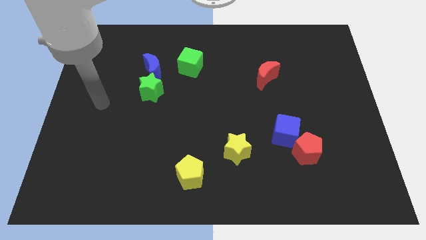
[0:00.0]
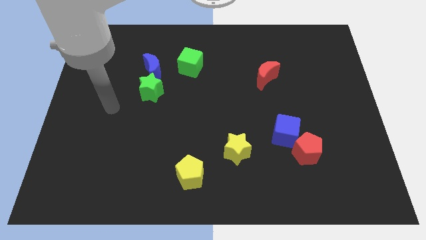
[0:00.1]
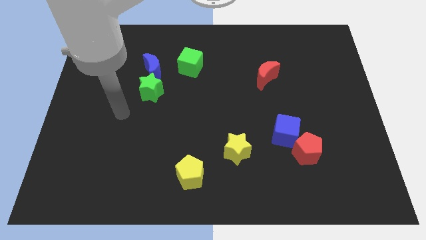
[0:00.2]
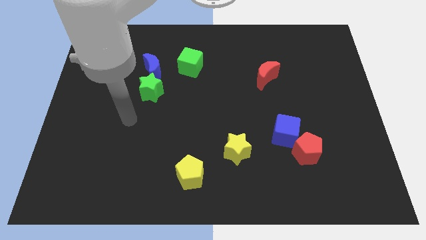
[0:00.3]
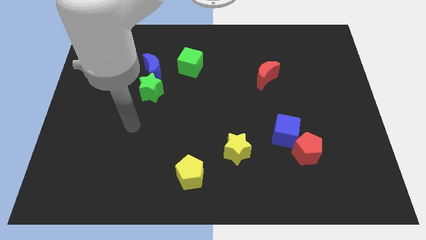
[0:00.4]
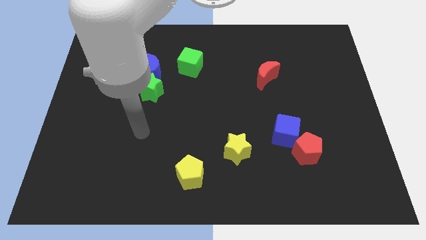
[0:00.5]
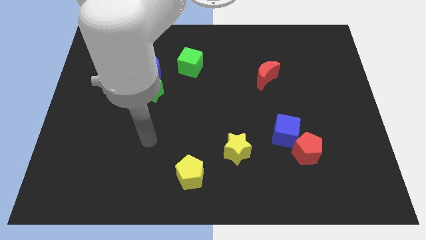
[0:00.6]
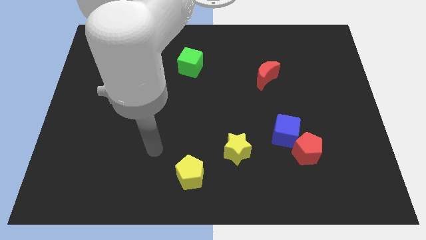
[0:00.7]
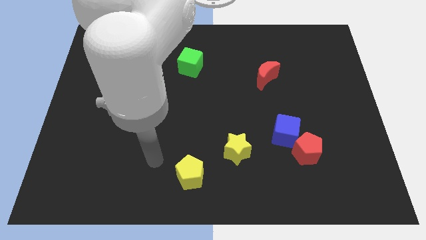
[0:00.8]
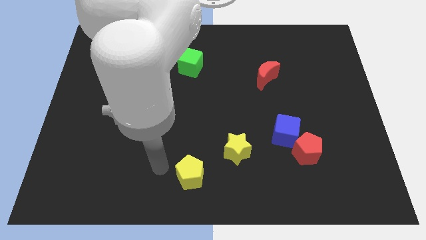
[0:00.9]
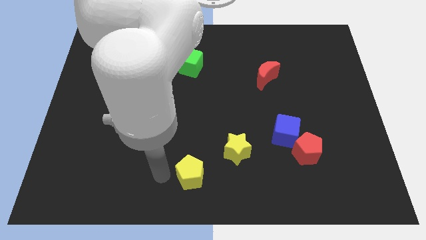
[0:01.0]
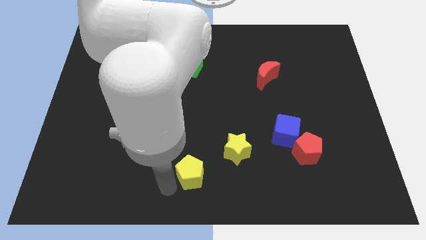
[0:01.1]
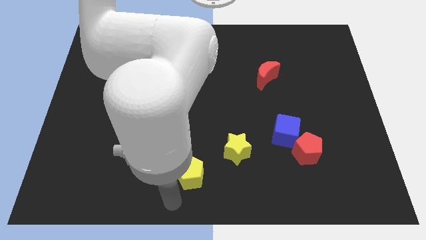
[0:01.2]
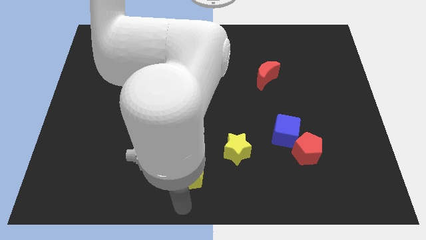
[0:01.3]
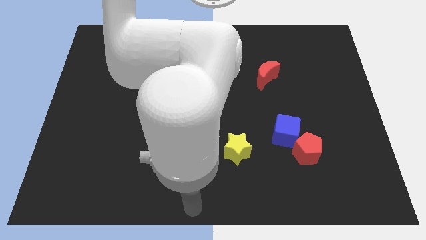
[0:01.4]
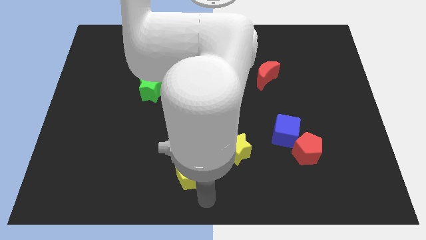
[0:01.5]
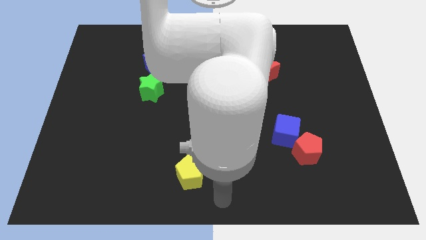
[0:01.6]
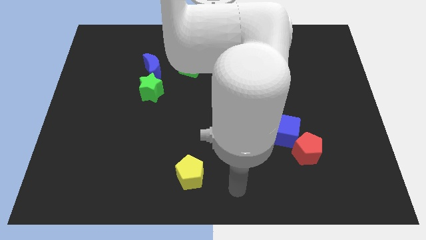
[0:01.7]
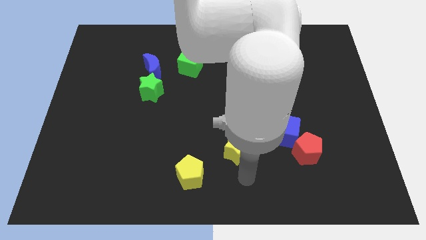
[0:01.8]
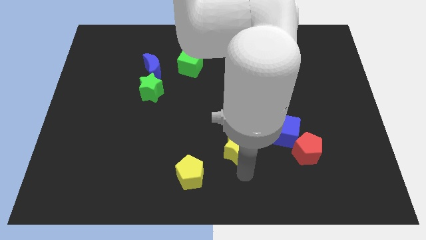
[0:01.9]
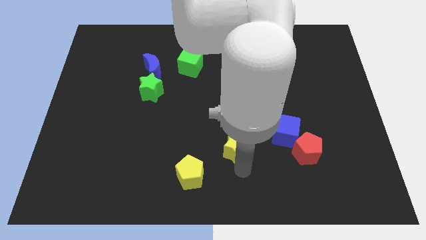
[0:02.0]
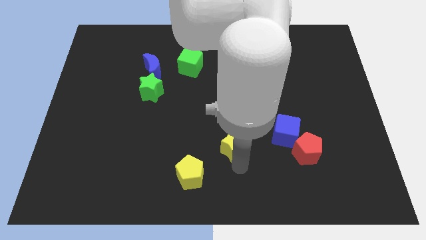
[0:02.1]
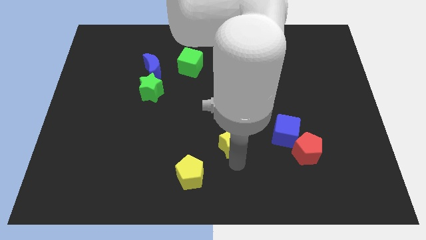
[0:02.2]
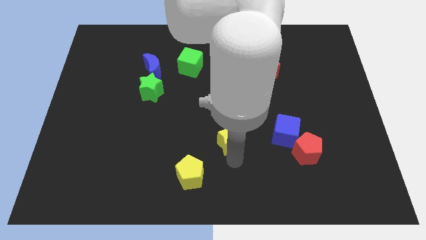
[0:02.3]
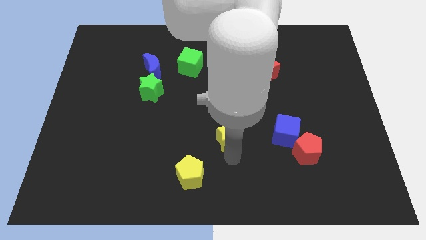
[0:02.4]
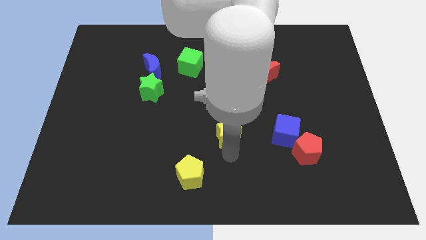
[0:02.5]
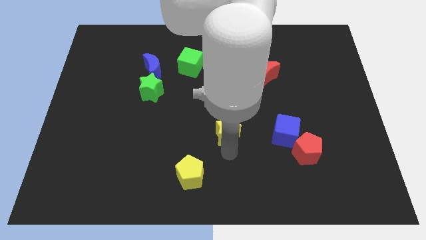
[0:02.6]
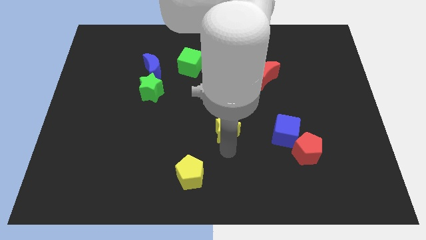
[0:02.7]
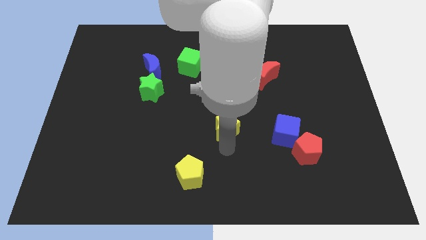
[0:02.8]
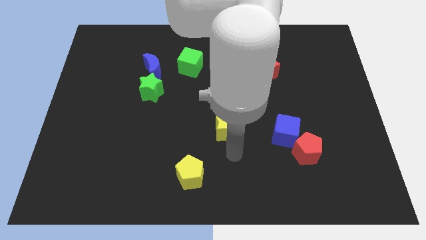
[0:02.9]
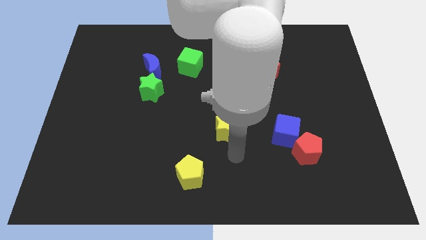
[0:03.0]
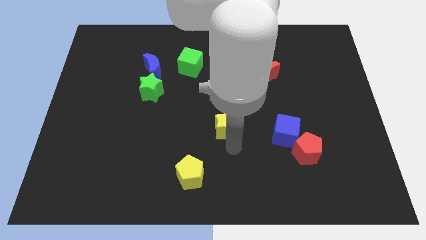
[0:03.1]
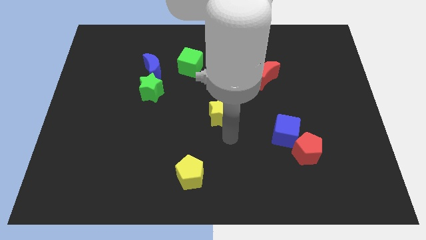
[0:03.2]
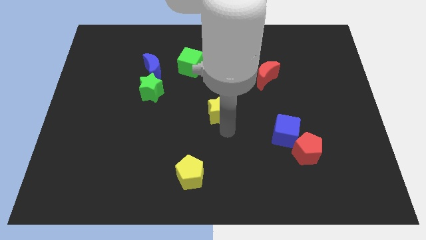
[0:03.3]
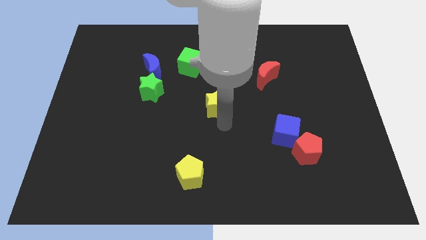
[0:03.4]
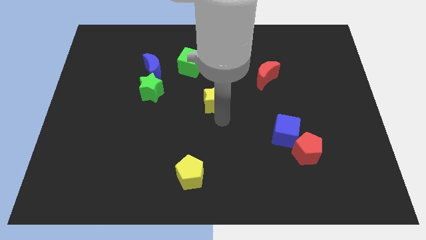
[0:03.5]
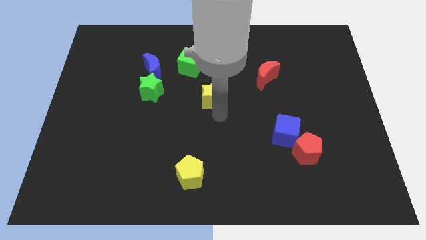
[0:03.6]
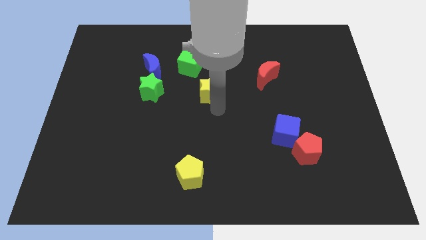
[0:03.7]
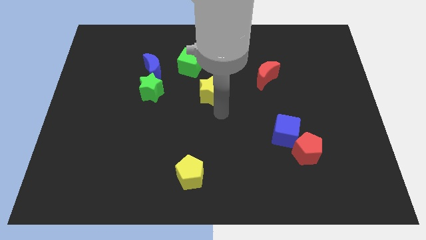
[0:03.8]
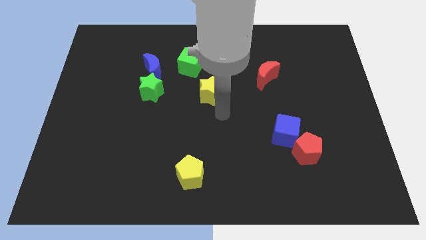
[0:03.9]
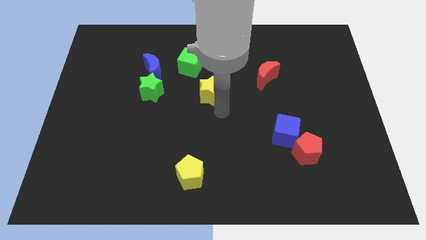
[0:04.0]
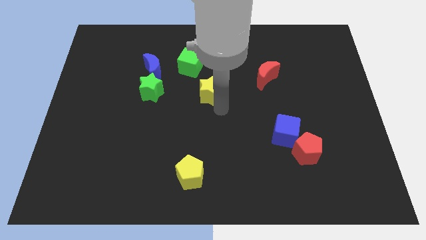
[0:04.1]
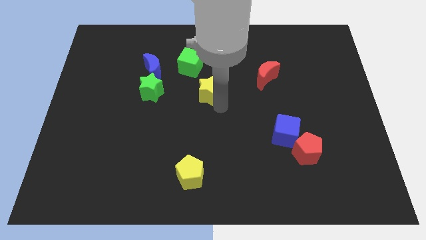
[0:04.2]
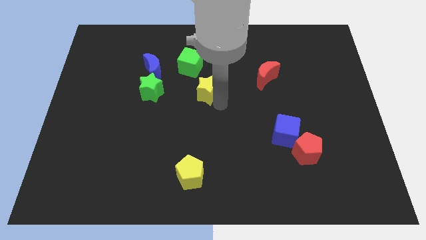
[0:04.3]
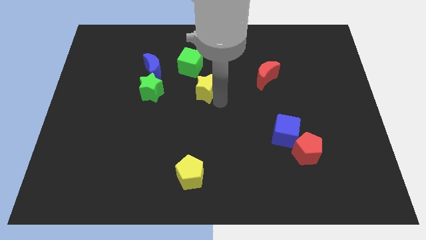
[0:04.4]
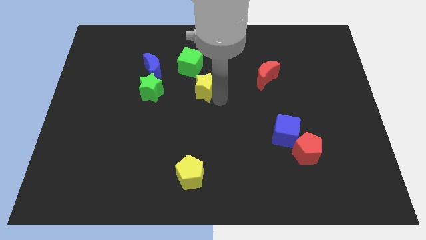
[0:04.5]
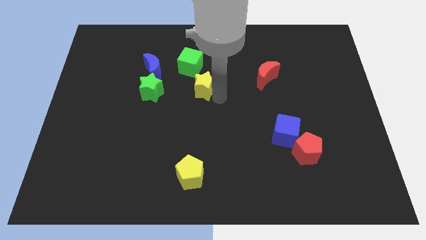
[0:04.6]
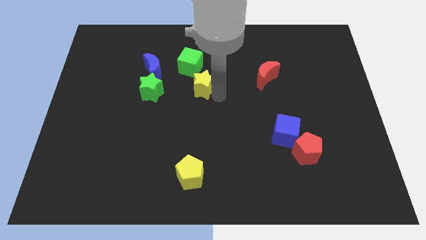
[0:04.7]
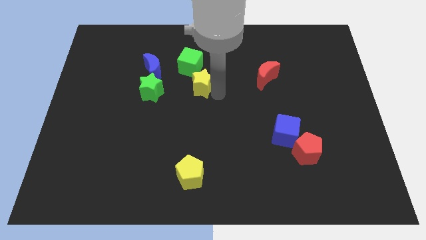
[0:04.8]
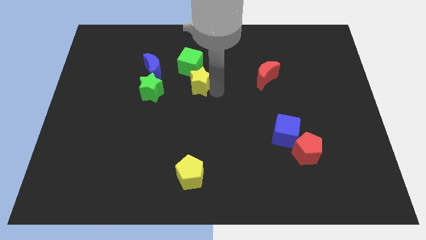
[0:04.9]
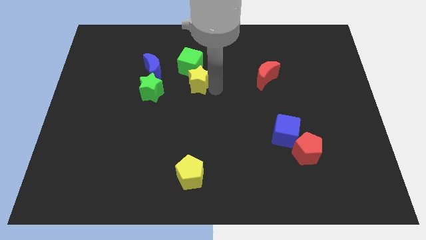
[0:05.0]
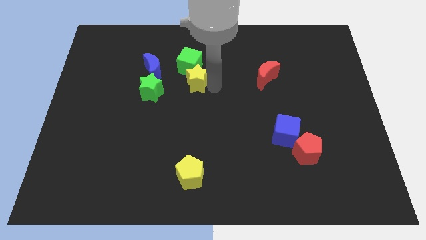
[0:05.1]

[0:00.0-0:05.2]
move the yellow star close to the green cube
